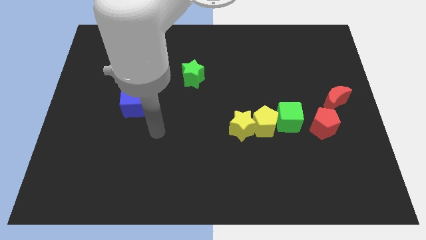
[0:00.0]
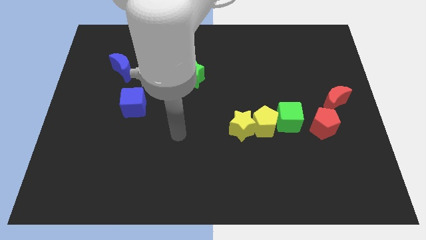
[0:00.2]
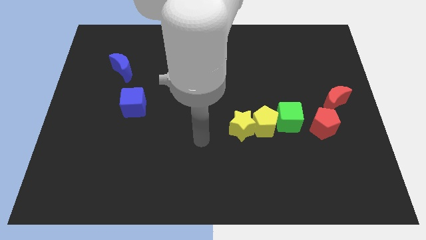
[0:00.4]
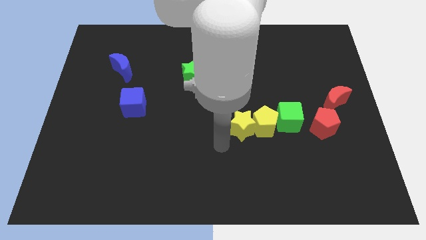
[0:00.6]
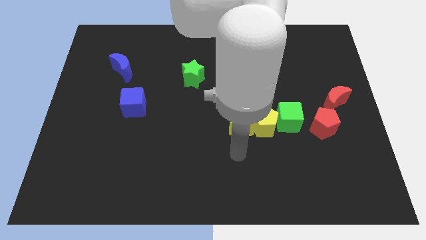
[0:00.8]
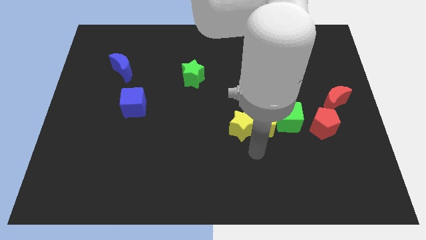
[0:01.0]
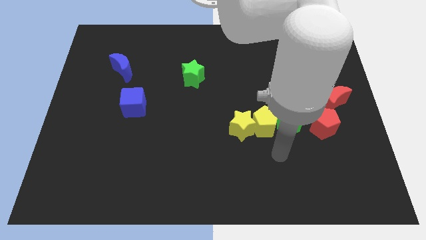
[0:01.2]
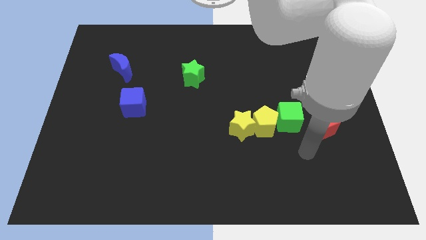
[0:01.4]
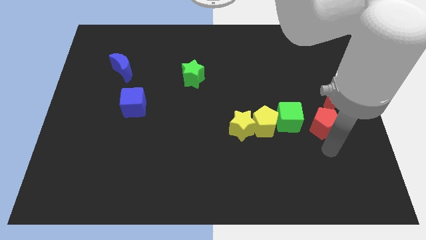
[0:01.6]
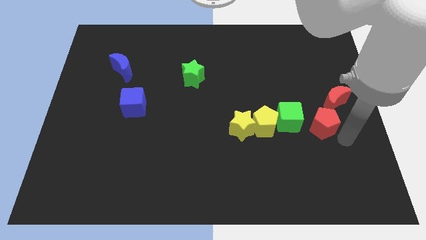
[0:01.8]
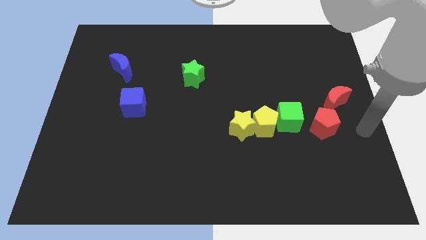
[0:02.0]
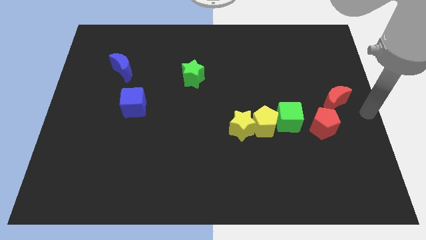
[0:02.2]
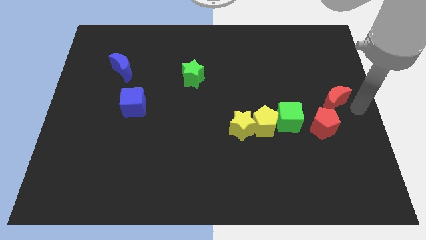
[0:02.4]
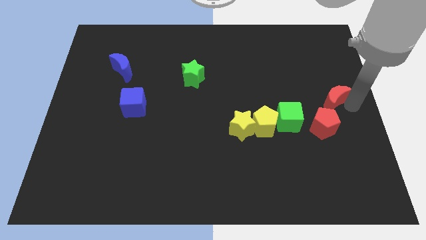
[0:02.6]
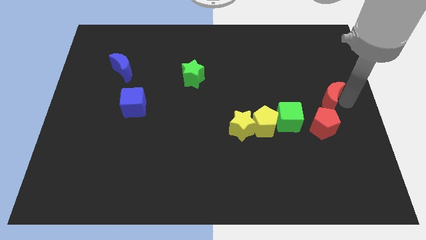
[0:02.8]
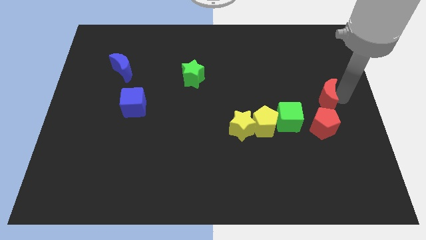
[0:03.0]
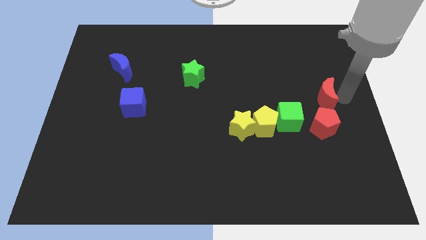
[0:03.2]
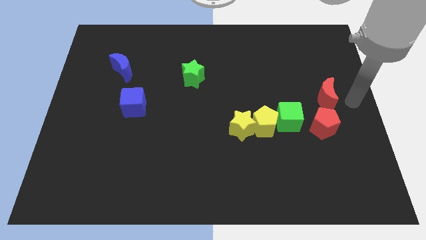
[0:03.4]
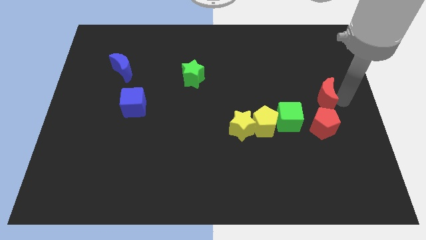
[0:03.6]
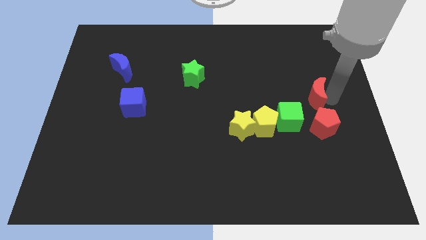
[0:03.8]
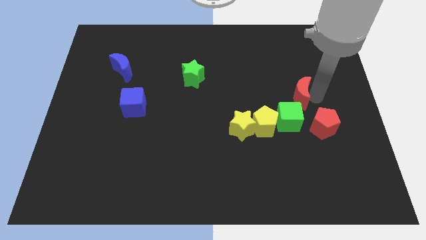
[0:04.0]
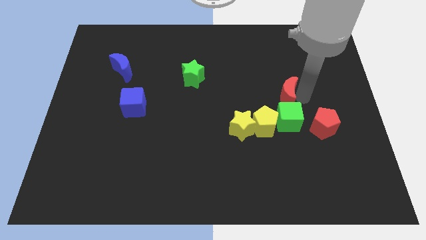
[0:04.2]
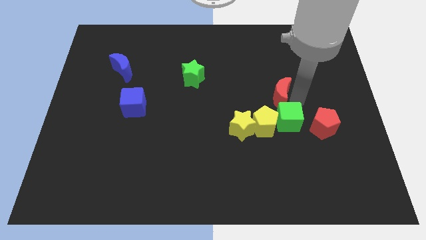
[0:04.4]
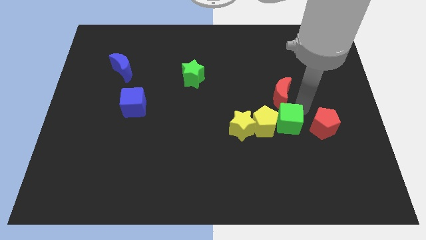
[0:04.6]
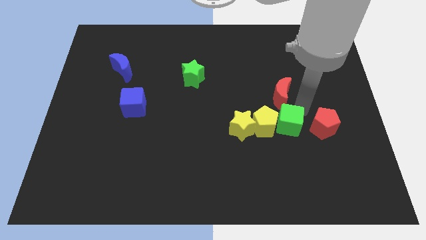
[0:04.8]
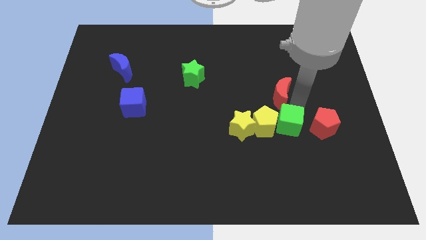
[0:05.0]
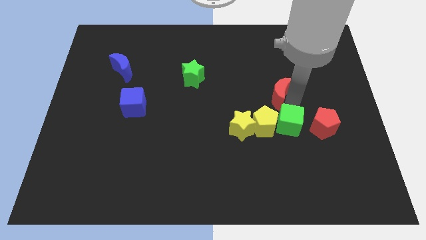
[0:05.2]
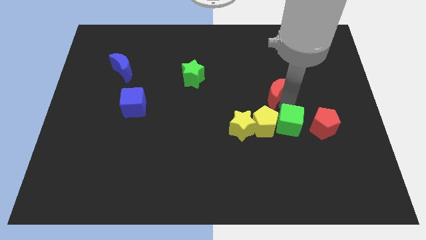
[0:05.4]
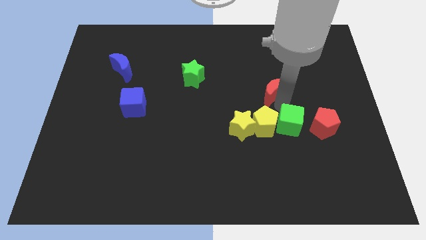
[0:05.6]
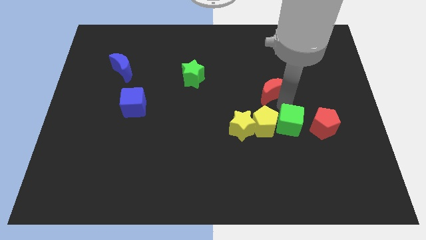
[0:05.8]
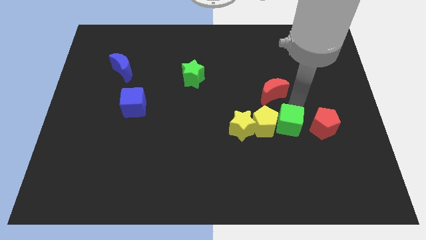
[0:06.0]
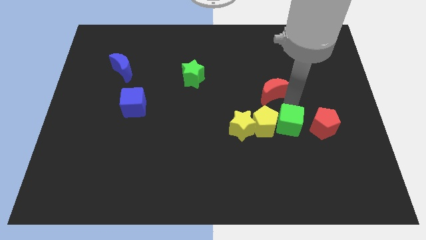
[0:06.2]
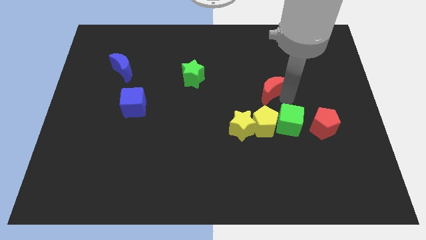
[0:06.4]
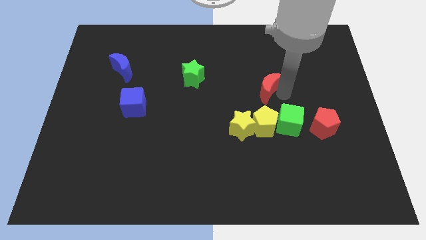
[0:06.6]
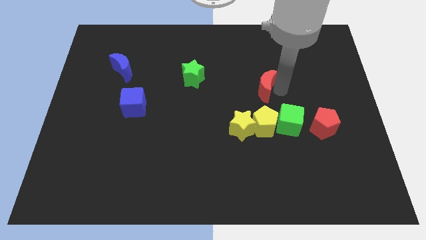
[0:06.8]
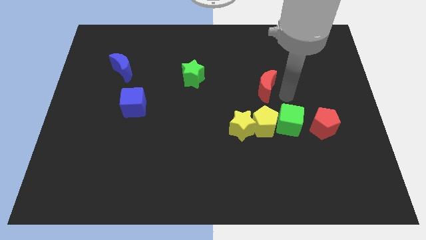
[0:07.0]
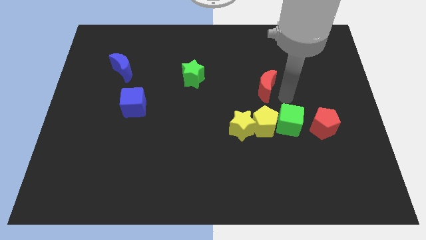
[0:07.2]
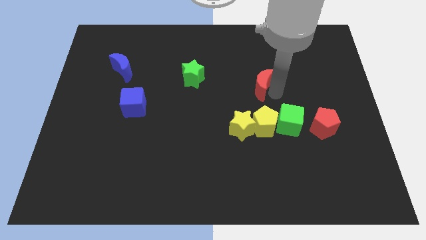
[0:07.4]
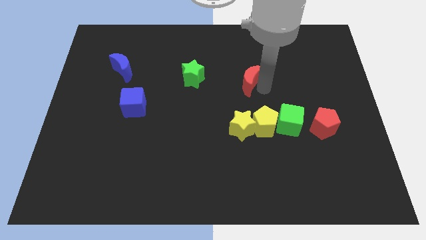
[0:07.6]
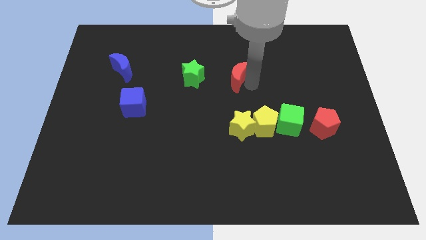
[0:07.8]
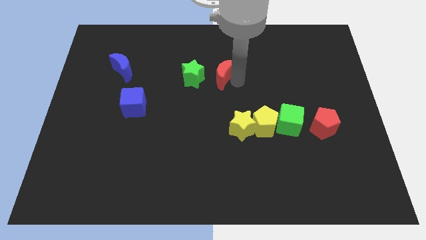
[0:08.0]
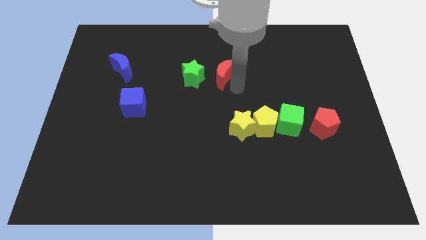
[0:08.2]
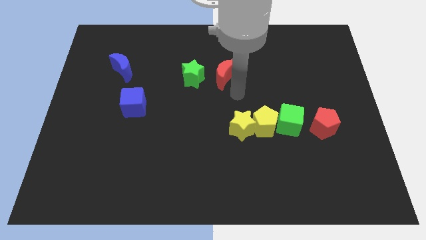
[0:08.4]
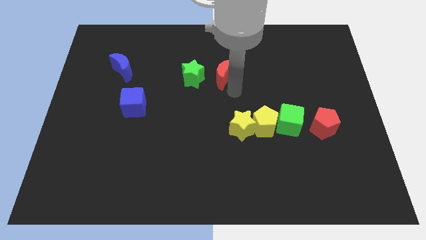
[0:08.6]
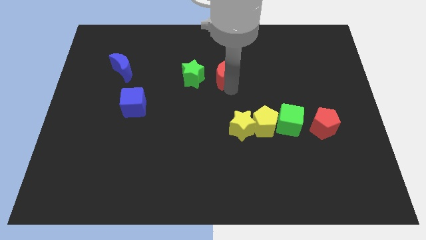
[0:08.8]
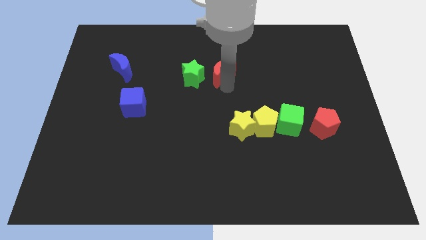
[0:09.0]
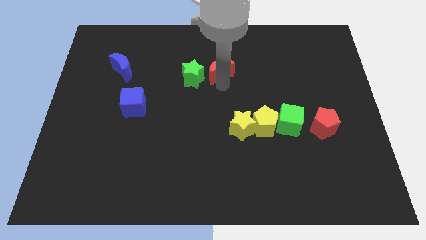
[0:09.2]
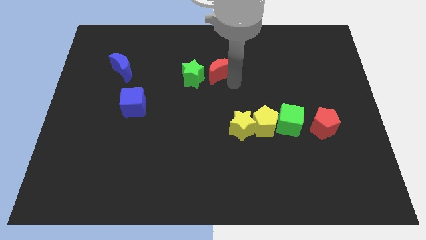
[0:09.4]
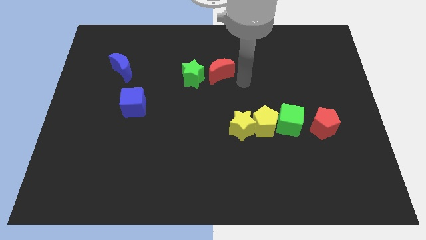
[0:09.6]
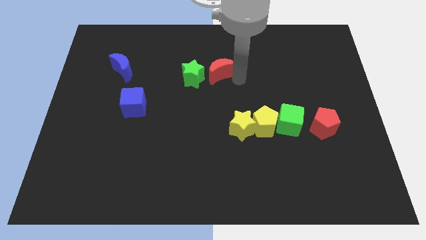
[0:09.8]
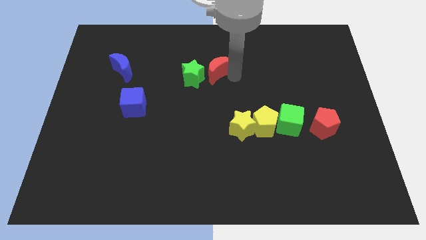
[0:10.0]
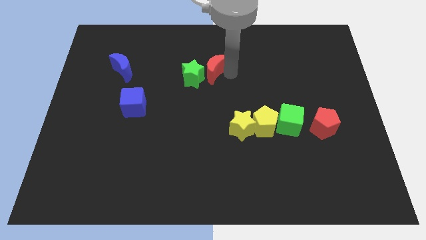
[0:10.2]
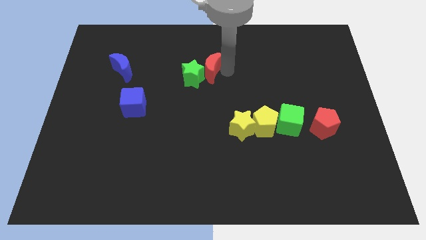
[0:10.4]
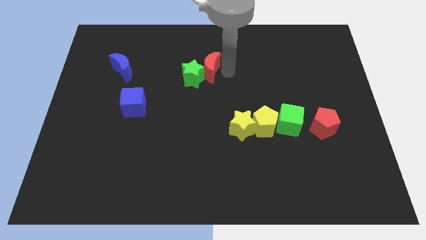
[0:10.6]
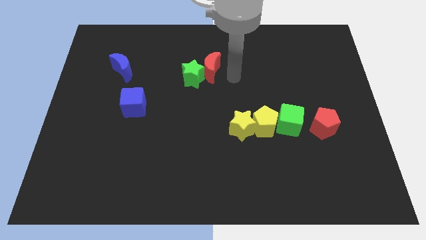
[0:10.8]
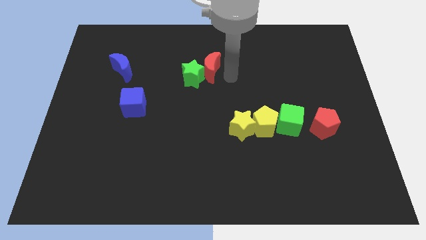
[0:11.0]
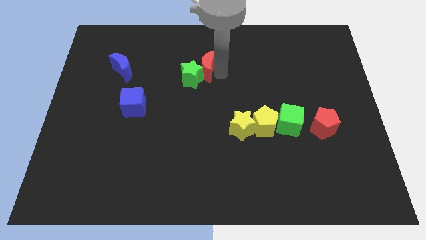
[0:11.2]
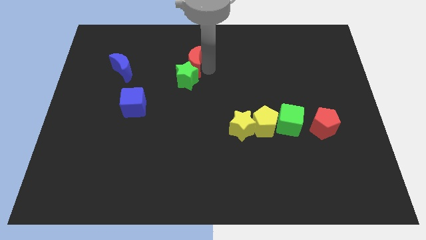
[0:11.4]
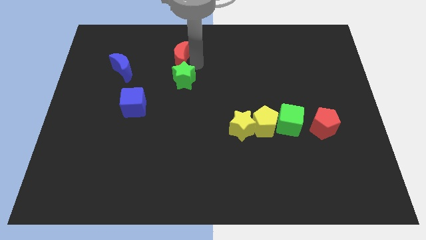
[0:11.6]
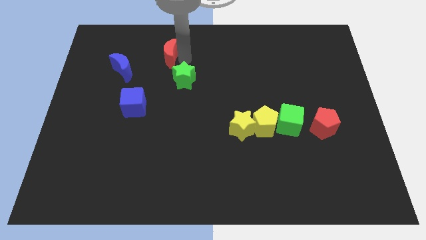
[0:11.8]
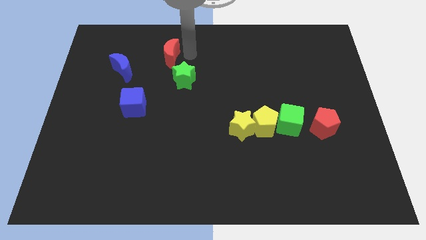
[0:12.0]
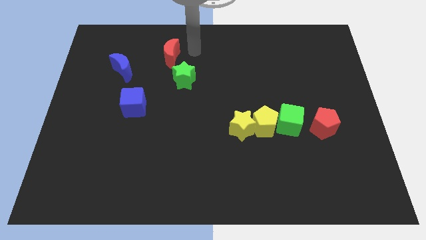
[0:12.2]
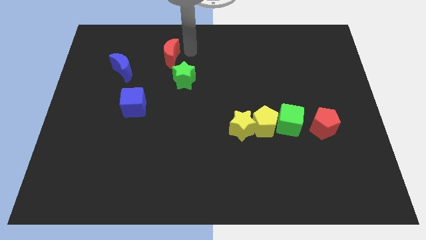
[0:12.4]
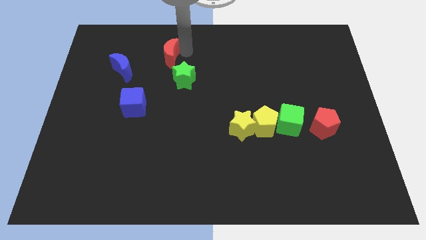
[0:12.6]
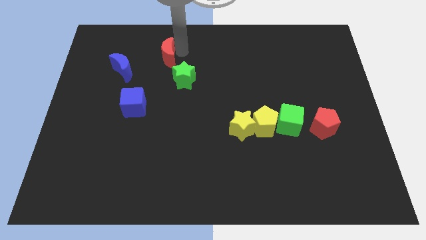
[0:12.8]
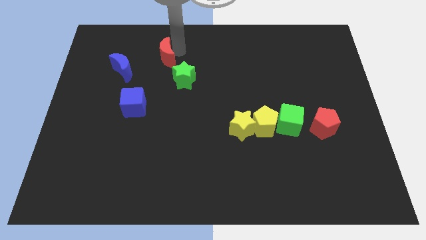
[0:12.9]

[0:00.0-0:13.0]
push the red moon to the top right side of the blue moon

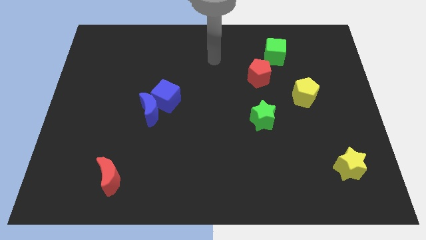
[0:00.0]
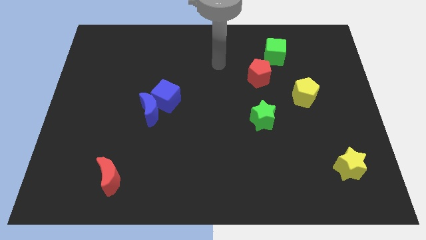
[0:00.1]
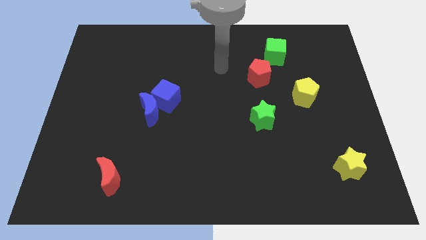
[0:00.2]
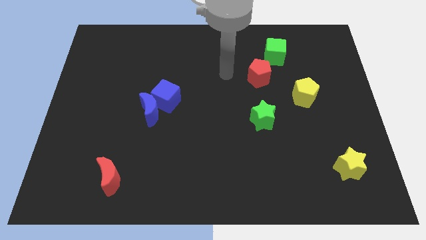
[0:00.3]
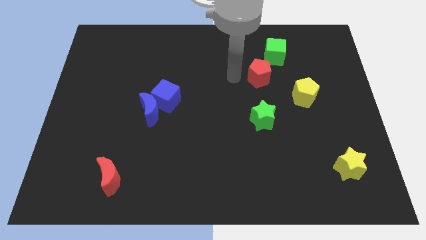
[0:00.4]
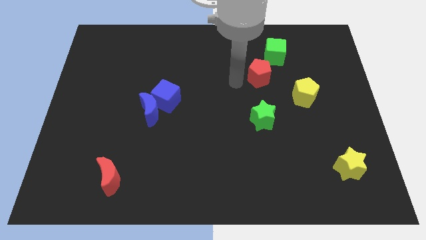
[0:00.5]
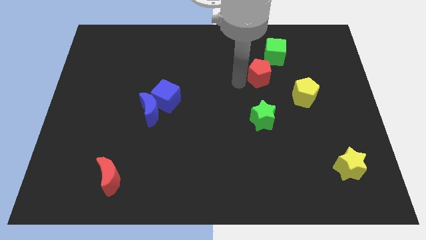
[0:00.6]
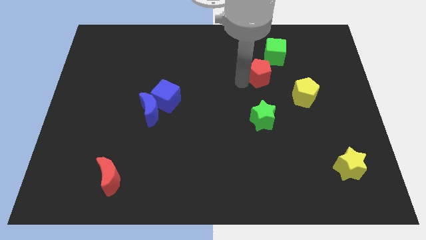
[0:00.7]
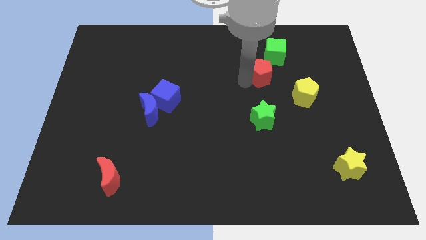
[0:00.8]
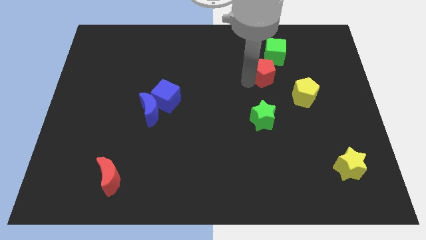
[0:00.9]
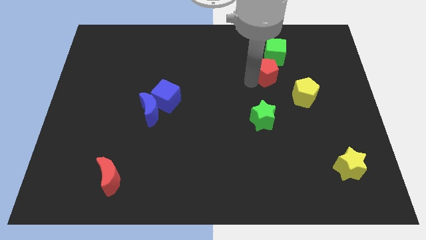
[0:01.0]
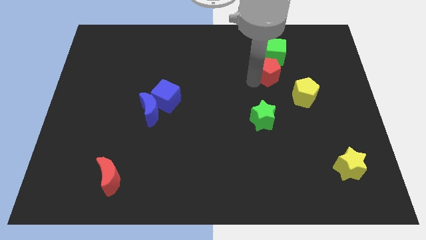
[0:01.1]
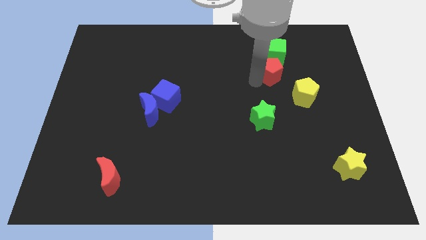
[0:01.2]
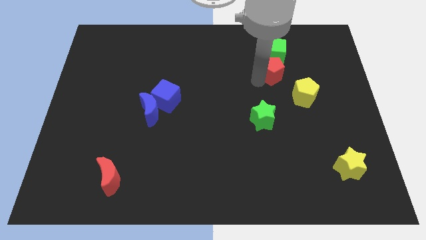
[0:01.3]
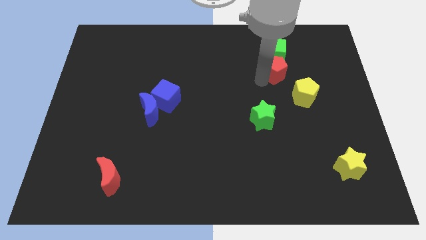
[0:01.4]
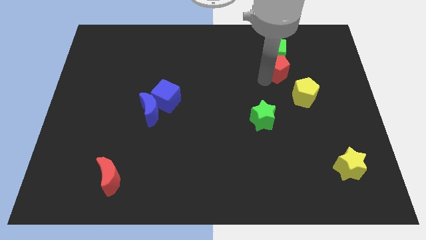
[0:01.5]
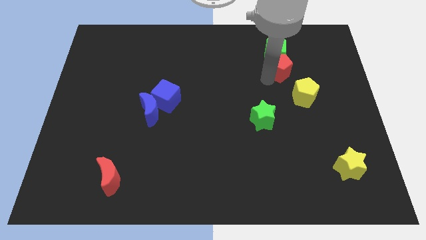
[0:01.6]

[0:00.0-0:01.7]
move the red pentagon to the top of the yellow pentagon
